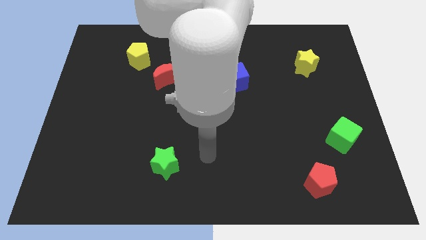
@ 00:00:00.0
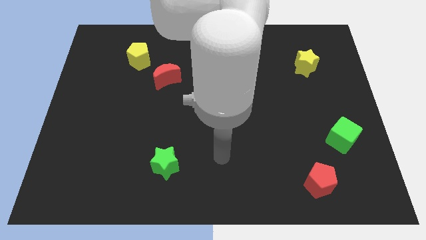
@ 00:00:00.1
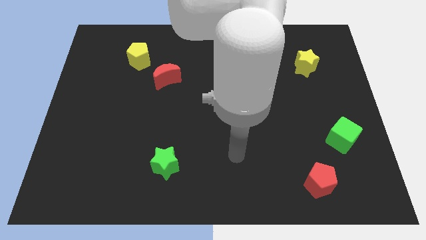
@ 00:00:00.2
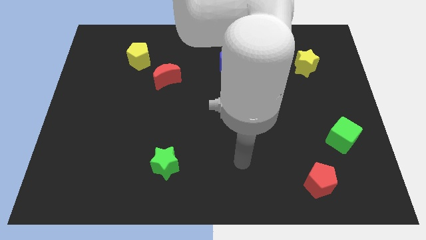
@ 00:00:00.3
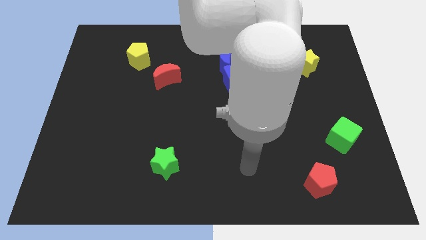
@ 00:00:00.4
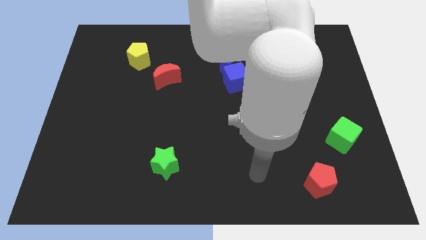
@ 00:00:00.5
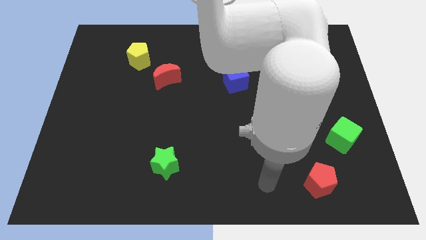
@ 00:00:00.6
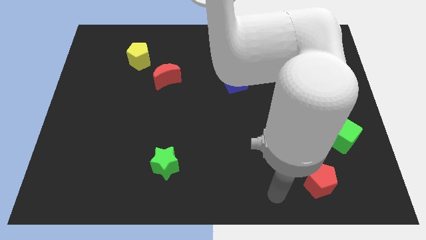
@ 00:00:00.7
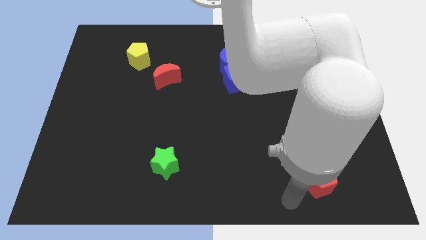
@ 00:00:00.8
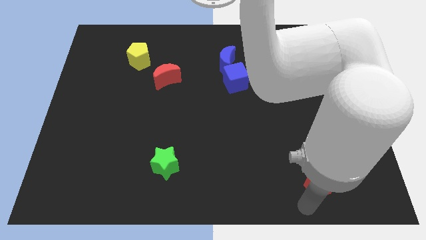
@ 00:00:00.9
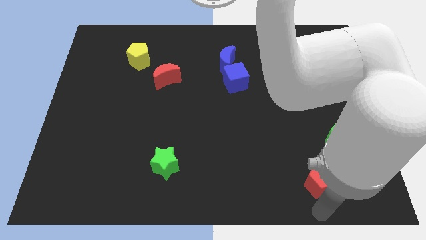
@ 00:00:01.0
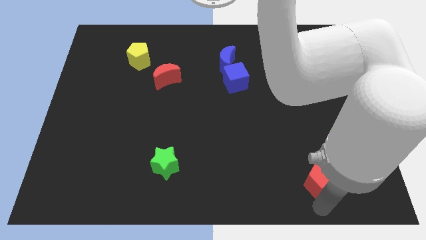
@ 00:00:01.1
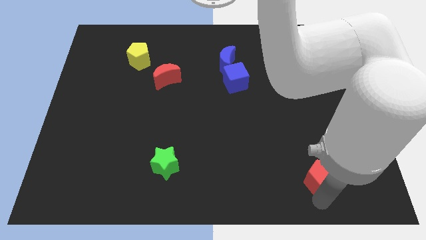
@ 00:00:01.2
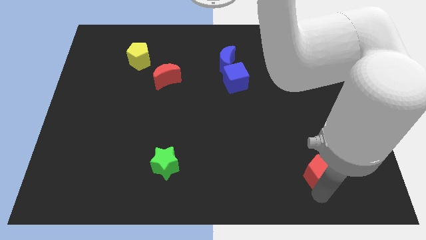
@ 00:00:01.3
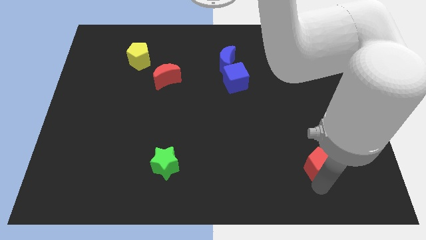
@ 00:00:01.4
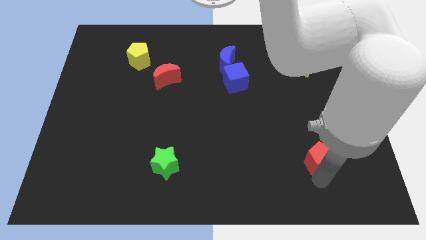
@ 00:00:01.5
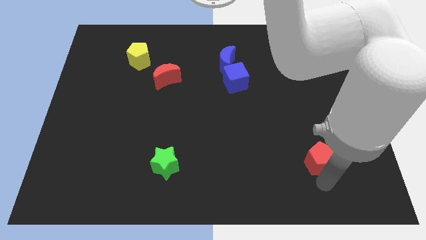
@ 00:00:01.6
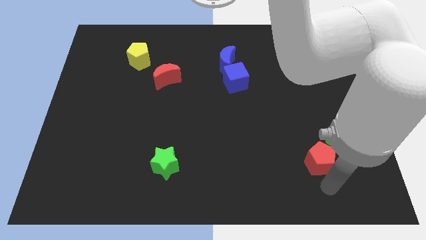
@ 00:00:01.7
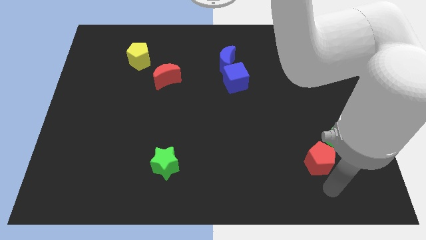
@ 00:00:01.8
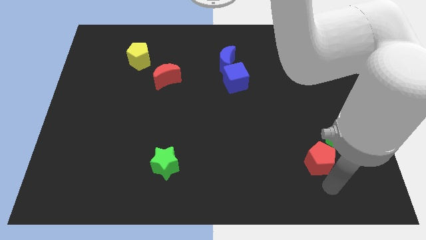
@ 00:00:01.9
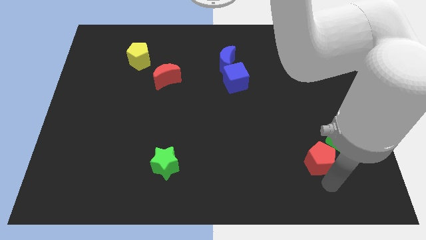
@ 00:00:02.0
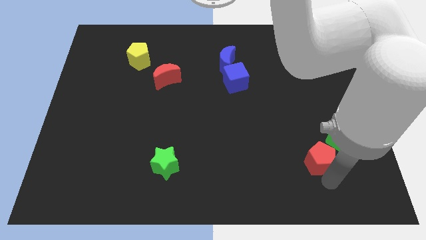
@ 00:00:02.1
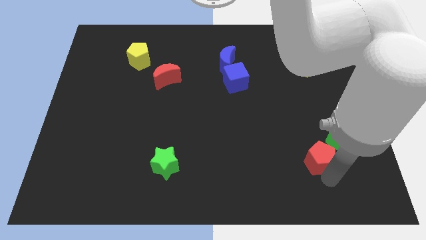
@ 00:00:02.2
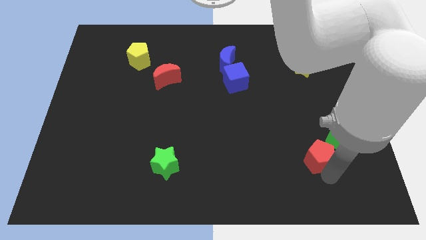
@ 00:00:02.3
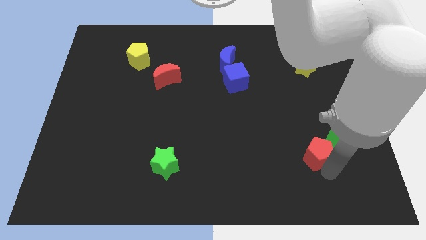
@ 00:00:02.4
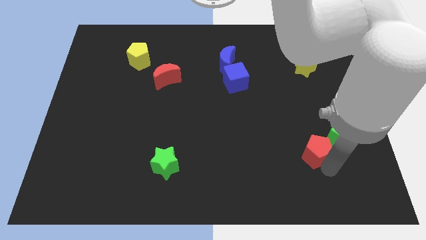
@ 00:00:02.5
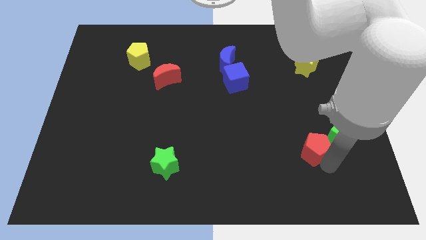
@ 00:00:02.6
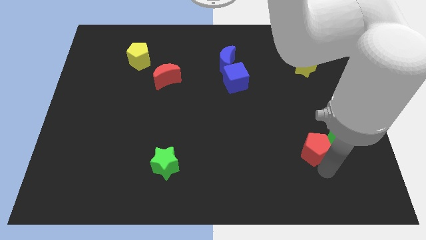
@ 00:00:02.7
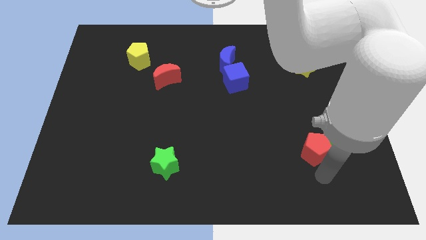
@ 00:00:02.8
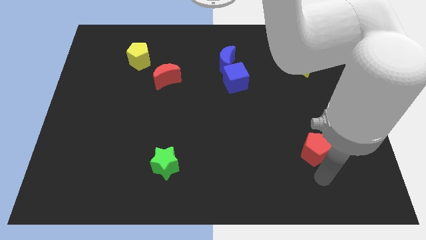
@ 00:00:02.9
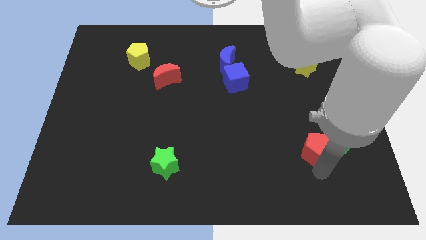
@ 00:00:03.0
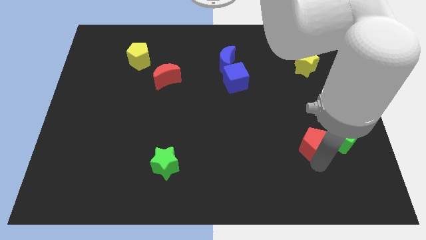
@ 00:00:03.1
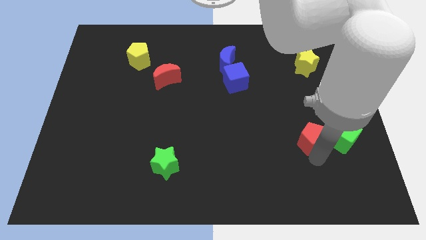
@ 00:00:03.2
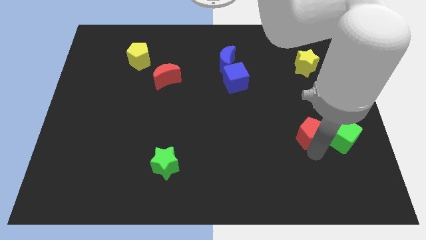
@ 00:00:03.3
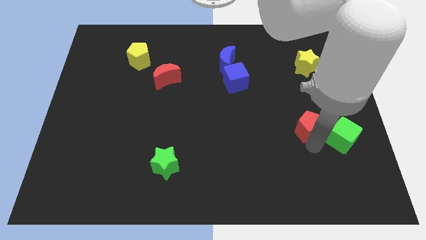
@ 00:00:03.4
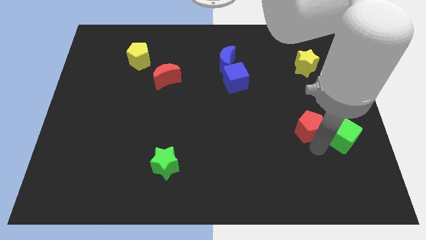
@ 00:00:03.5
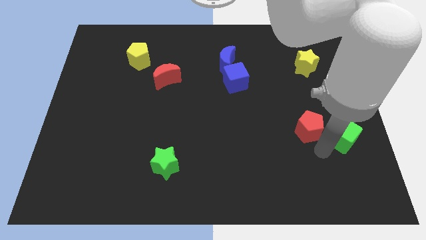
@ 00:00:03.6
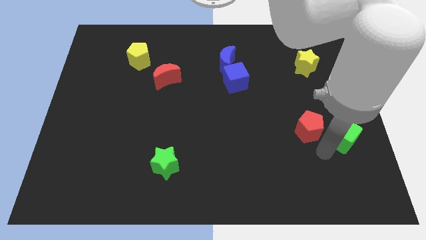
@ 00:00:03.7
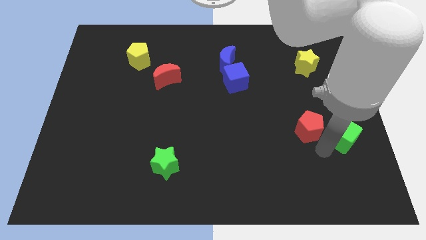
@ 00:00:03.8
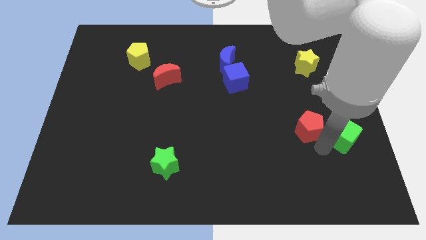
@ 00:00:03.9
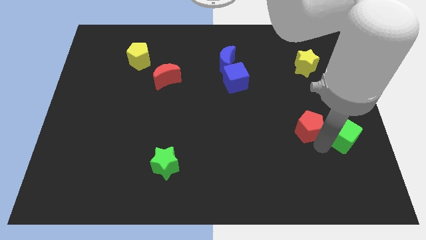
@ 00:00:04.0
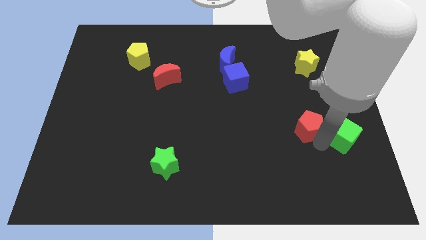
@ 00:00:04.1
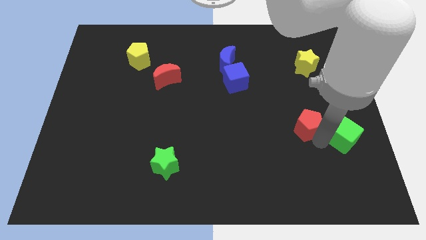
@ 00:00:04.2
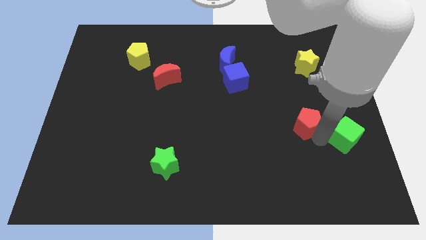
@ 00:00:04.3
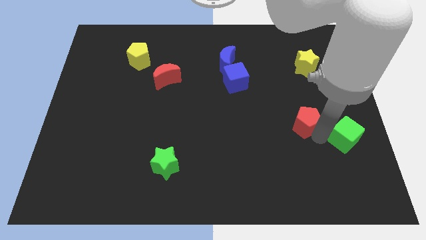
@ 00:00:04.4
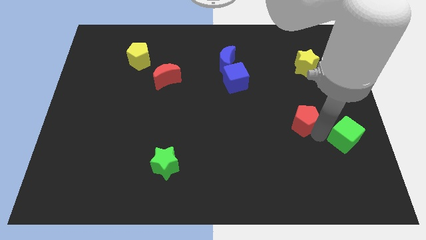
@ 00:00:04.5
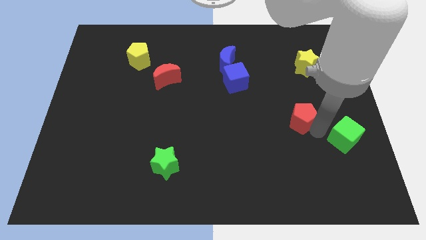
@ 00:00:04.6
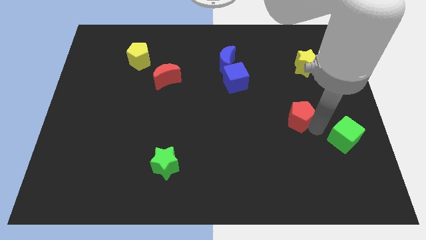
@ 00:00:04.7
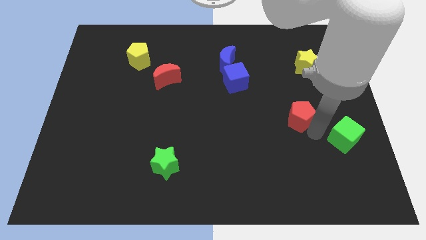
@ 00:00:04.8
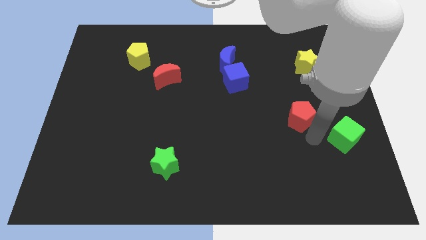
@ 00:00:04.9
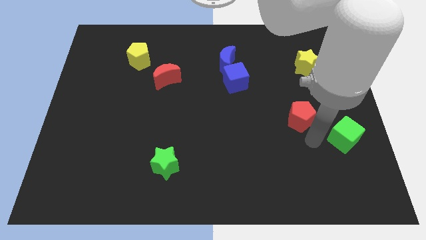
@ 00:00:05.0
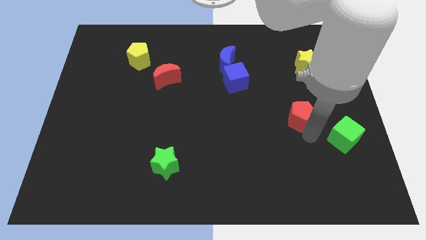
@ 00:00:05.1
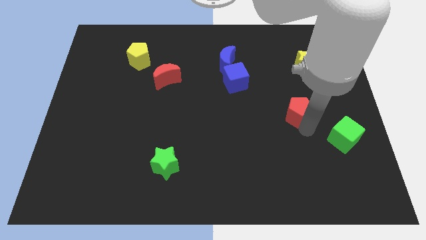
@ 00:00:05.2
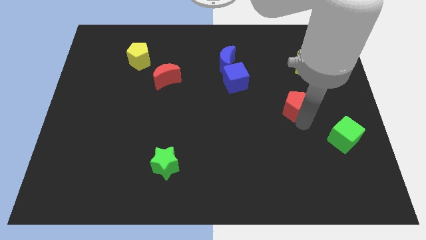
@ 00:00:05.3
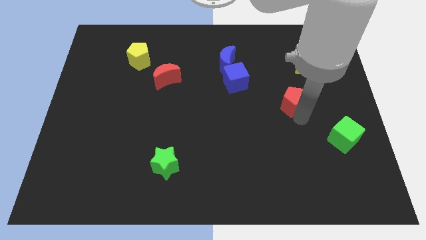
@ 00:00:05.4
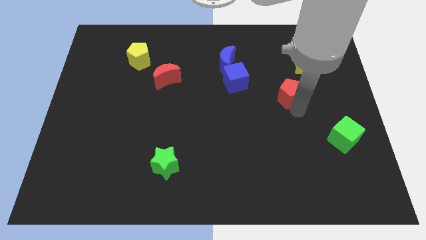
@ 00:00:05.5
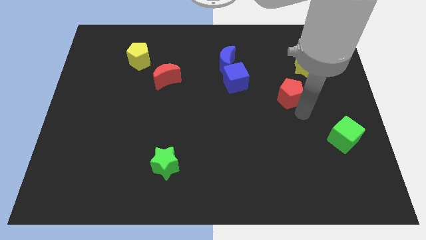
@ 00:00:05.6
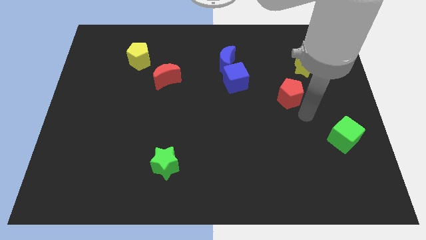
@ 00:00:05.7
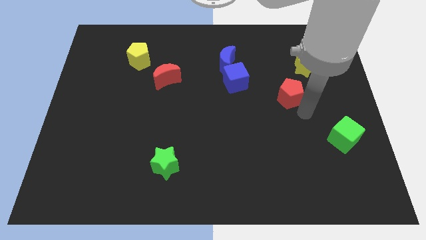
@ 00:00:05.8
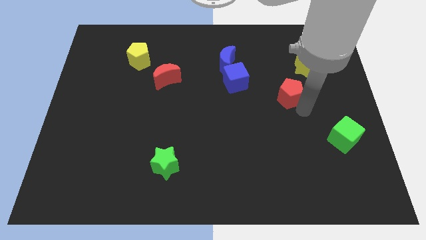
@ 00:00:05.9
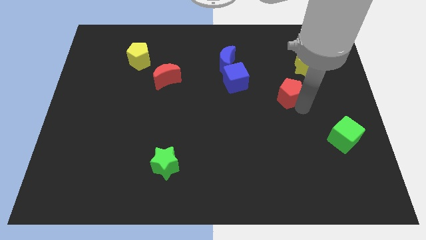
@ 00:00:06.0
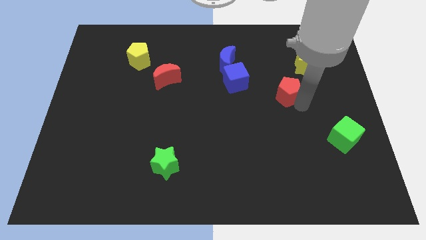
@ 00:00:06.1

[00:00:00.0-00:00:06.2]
push the red pentagon to the right of the blue cube

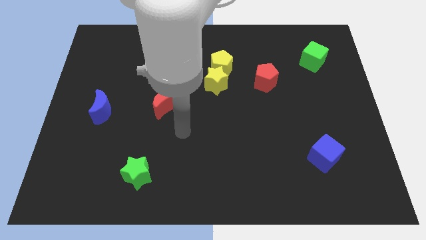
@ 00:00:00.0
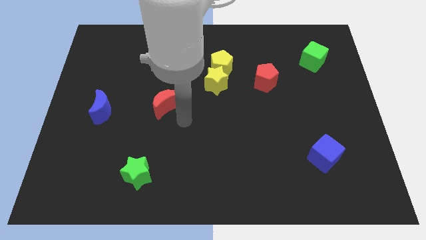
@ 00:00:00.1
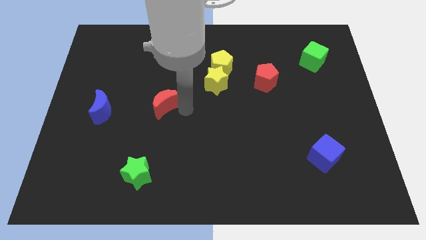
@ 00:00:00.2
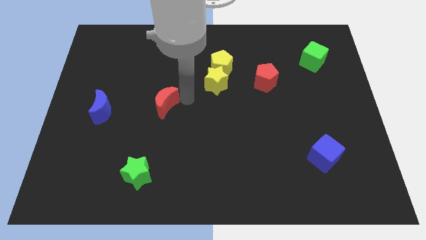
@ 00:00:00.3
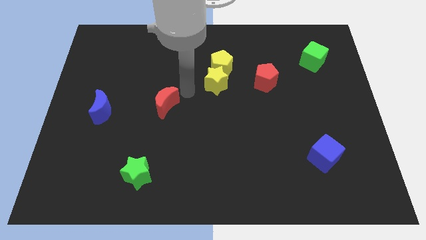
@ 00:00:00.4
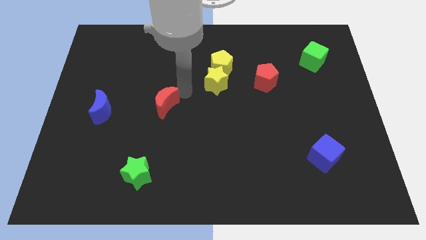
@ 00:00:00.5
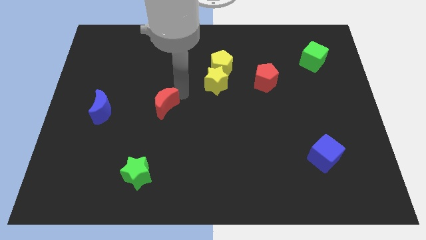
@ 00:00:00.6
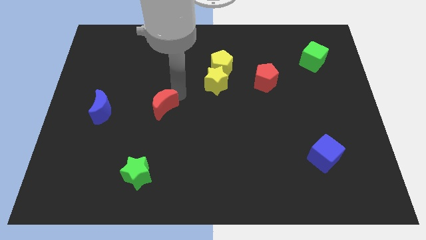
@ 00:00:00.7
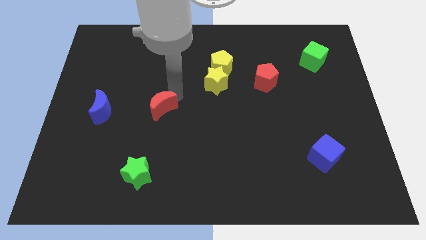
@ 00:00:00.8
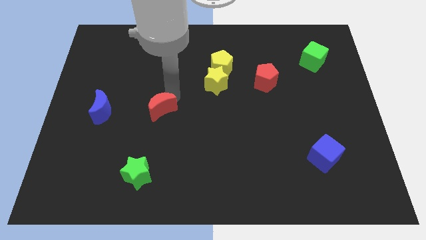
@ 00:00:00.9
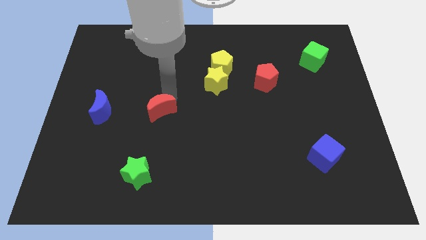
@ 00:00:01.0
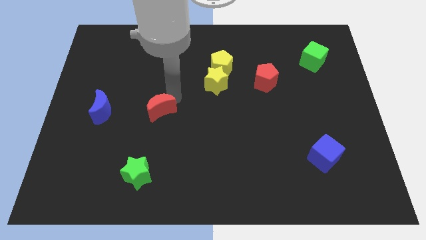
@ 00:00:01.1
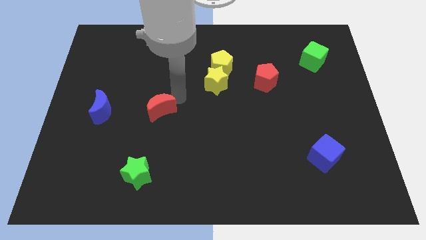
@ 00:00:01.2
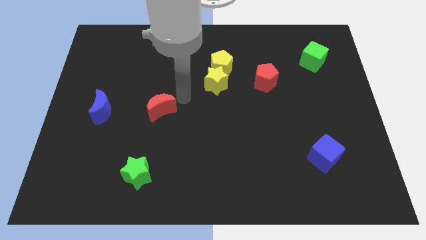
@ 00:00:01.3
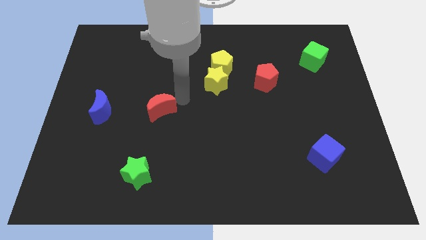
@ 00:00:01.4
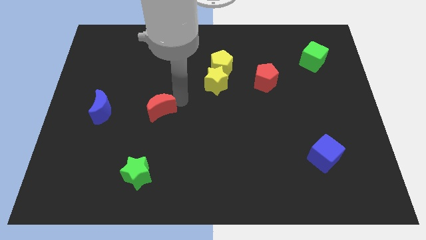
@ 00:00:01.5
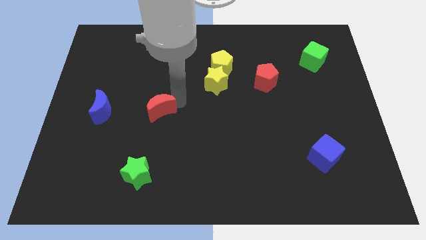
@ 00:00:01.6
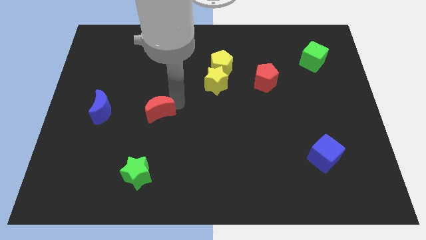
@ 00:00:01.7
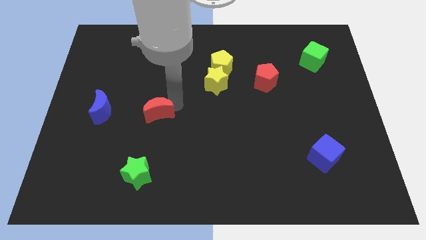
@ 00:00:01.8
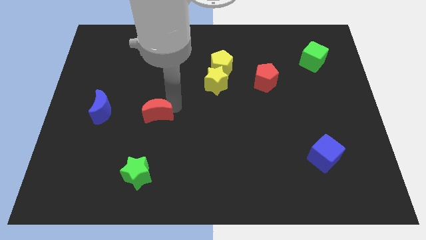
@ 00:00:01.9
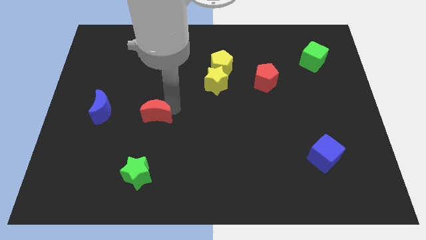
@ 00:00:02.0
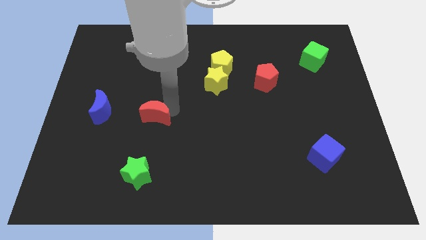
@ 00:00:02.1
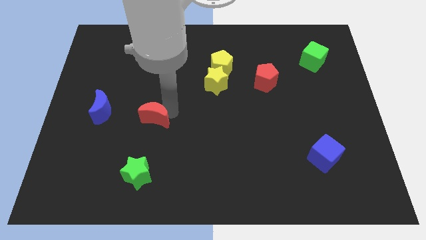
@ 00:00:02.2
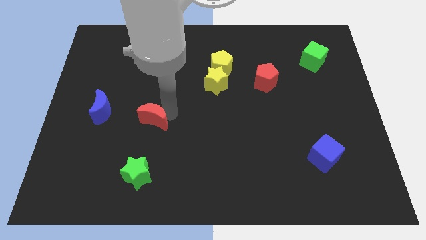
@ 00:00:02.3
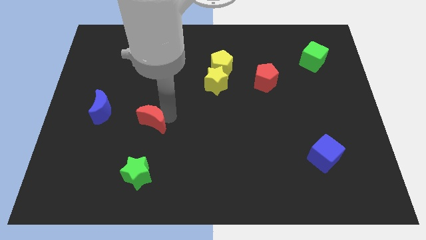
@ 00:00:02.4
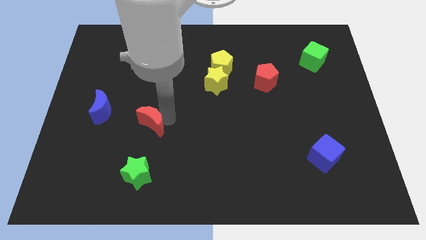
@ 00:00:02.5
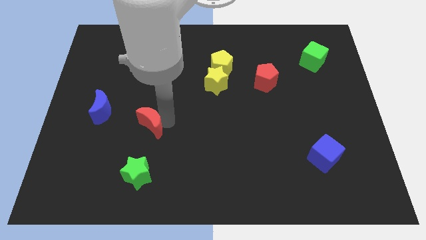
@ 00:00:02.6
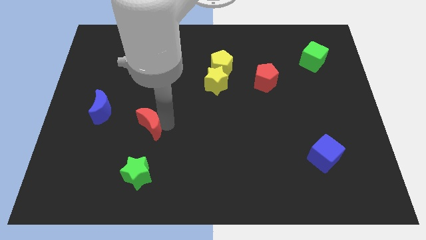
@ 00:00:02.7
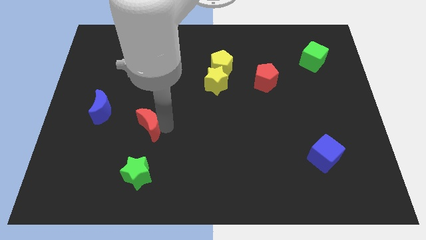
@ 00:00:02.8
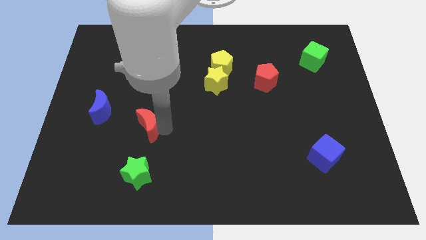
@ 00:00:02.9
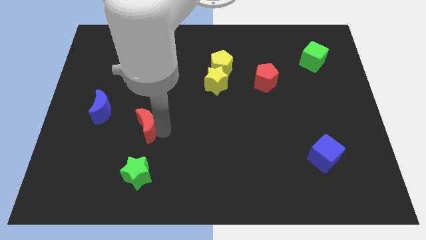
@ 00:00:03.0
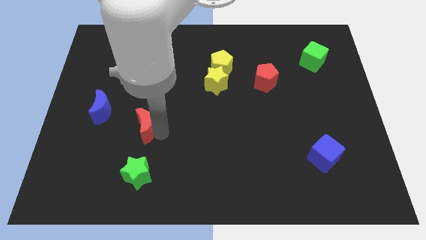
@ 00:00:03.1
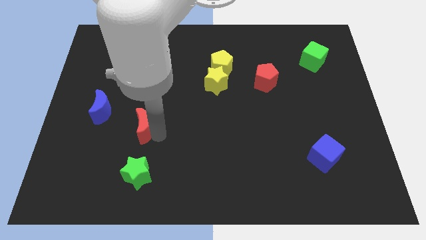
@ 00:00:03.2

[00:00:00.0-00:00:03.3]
push the red moon diagonally down and to the right of the blue moon
